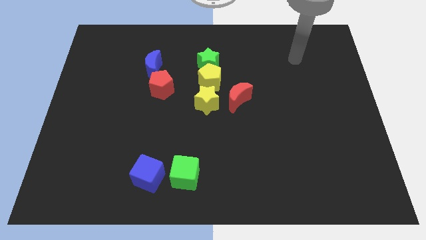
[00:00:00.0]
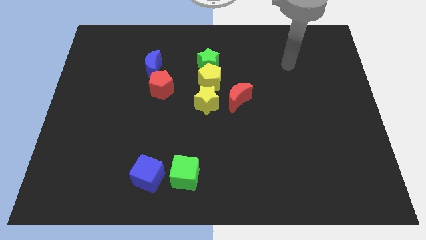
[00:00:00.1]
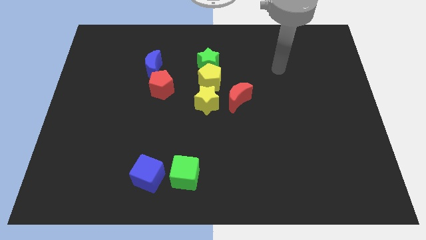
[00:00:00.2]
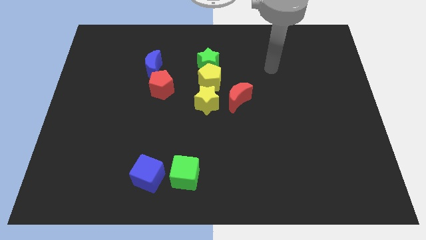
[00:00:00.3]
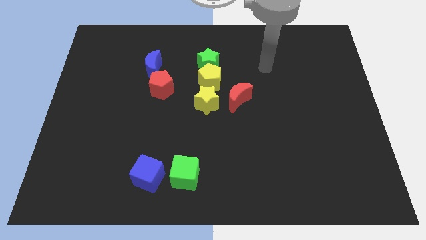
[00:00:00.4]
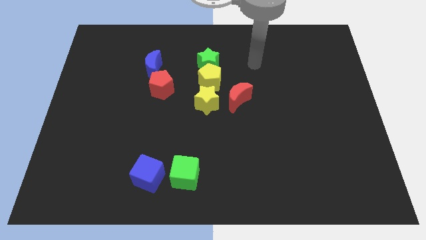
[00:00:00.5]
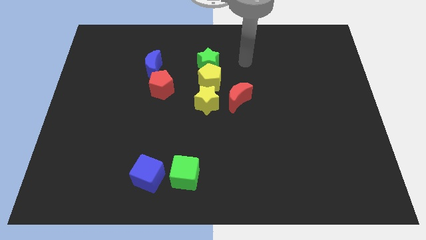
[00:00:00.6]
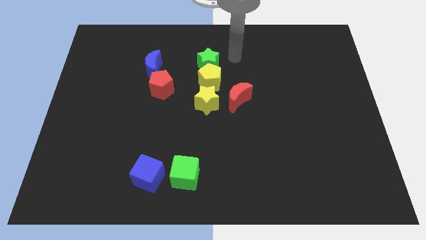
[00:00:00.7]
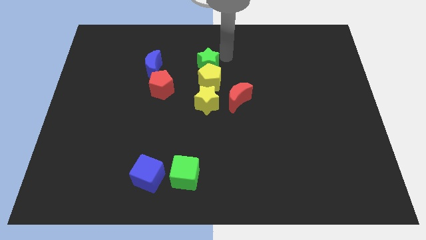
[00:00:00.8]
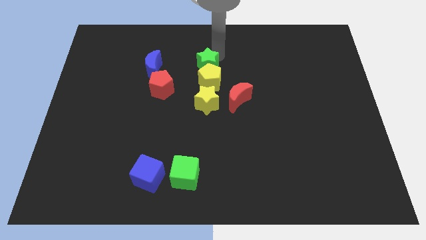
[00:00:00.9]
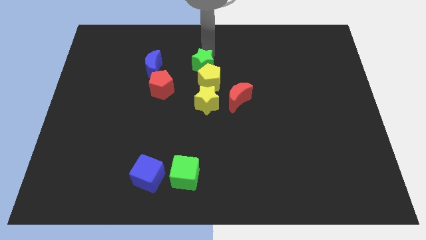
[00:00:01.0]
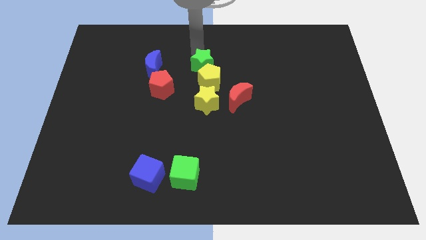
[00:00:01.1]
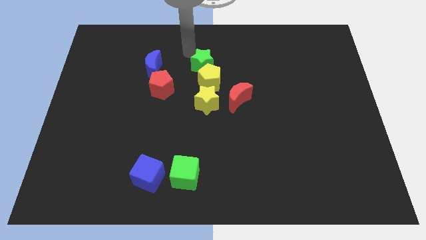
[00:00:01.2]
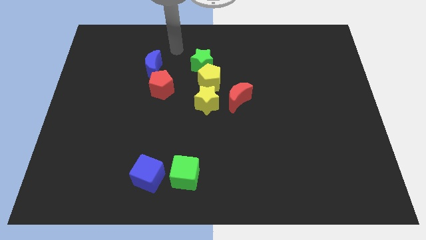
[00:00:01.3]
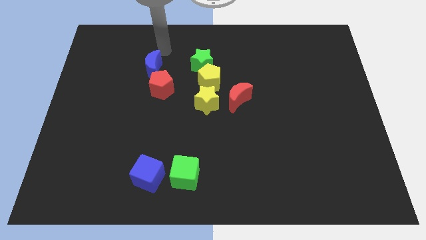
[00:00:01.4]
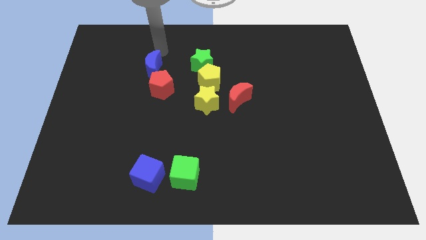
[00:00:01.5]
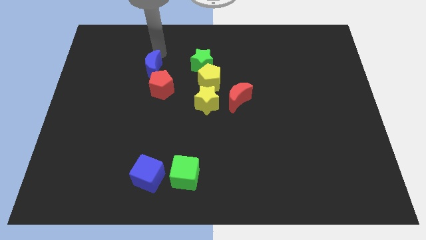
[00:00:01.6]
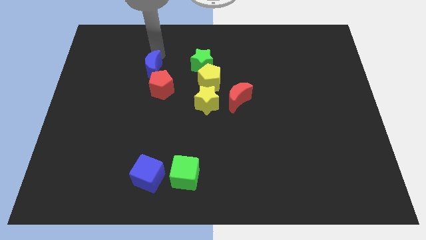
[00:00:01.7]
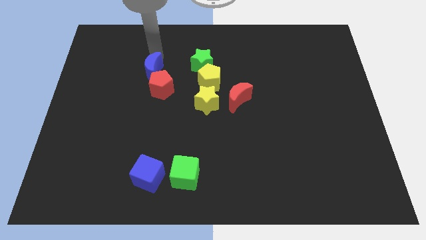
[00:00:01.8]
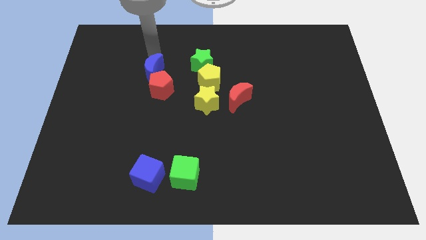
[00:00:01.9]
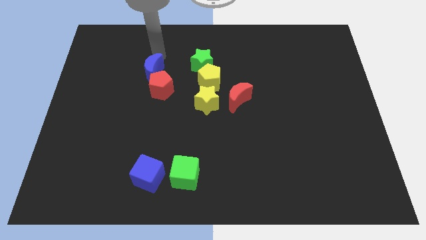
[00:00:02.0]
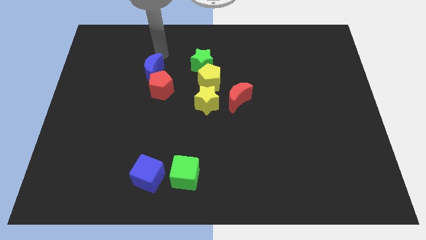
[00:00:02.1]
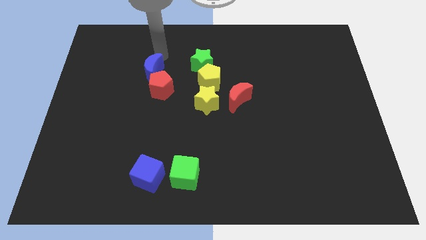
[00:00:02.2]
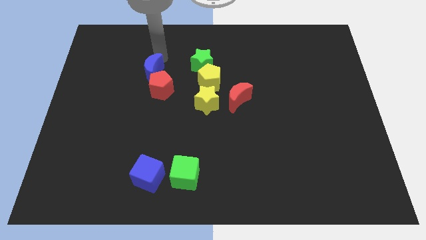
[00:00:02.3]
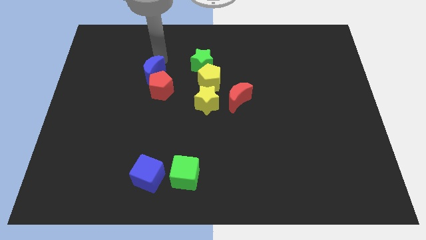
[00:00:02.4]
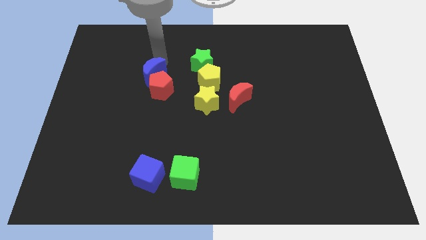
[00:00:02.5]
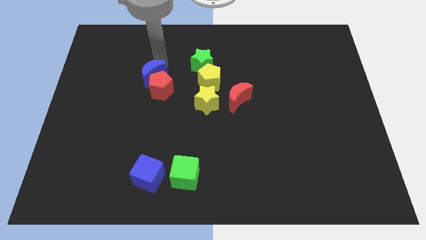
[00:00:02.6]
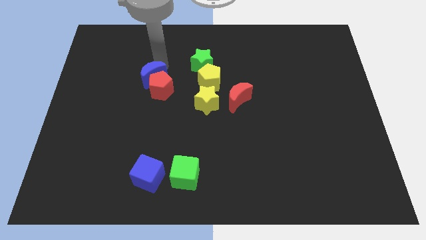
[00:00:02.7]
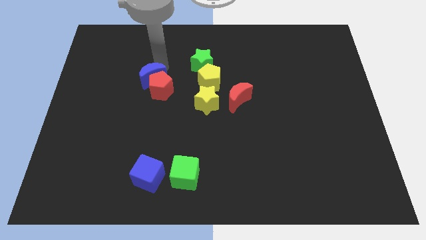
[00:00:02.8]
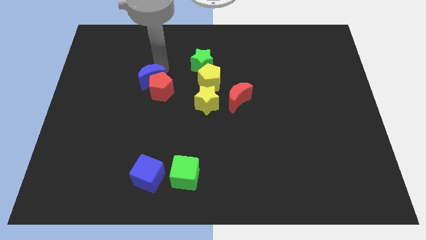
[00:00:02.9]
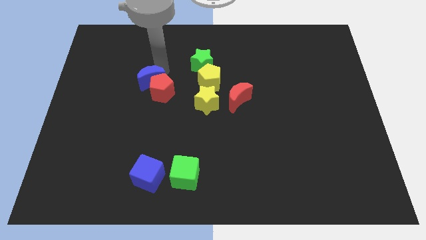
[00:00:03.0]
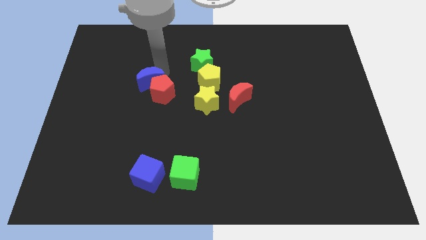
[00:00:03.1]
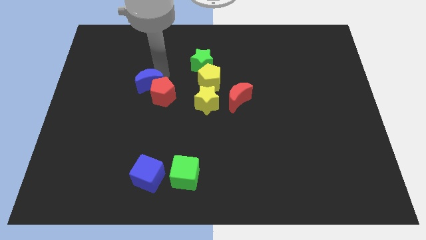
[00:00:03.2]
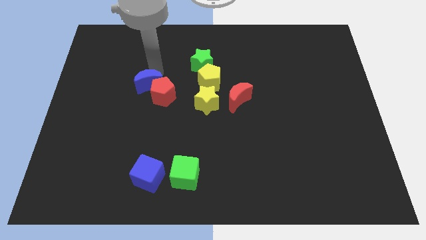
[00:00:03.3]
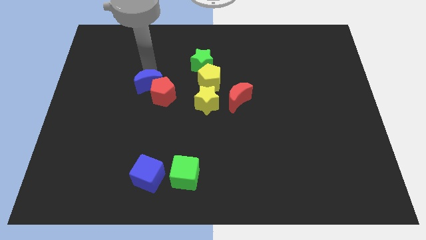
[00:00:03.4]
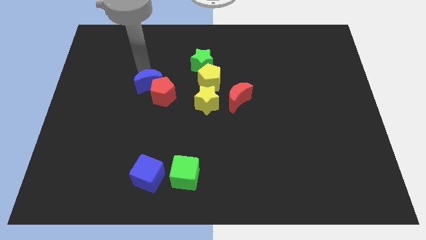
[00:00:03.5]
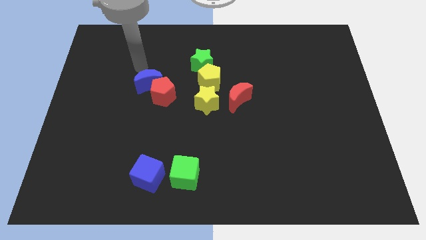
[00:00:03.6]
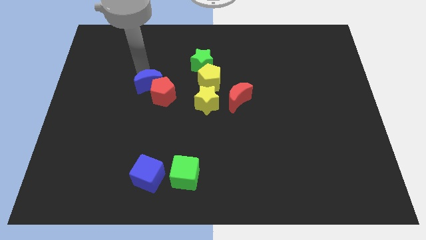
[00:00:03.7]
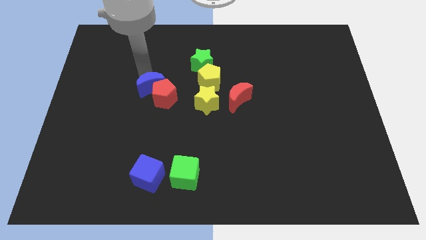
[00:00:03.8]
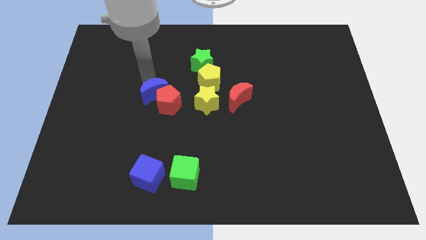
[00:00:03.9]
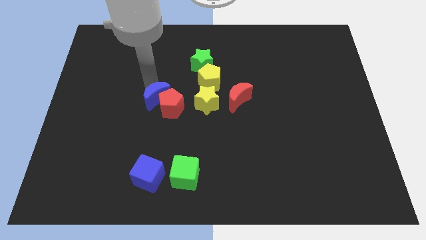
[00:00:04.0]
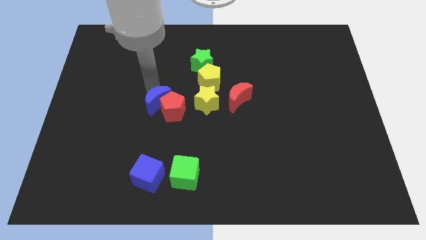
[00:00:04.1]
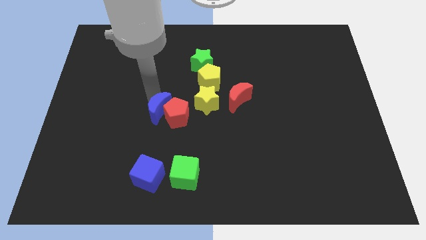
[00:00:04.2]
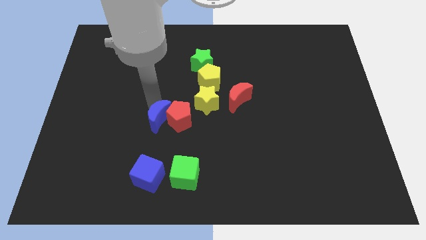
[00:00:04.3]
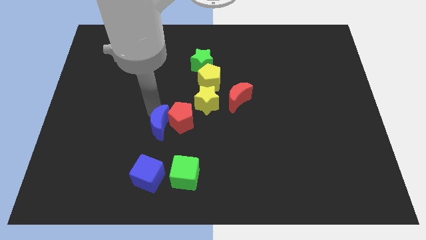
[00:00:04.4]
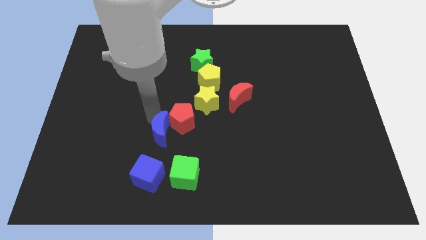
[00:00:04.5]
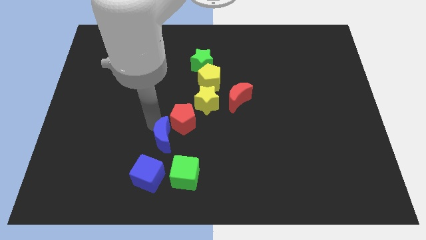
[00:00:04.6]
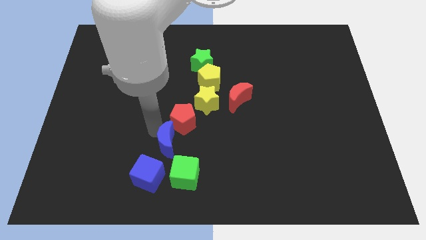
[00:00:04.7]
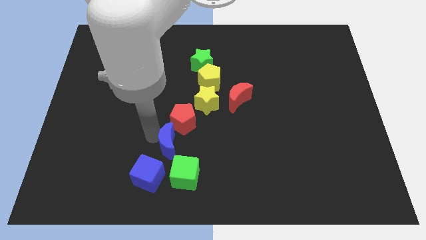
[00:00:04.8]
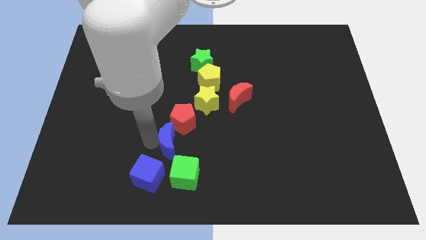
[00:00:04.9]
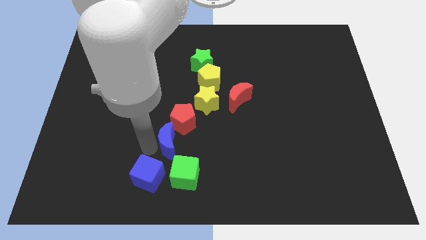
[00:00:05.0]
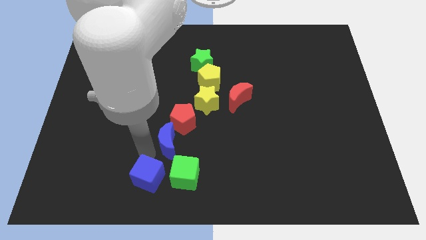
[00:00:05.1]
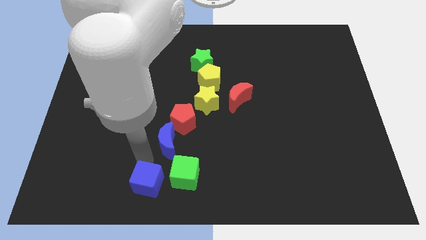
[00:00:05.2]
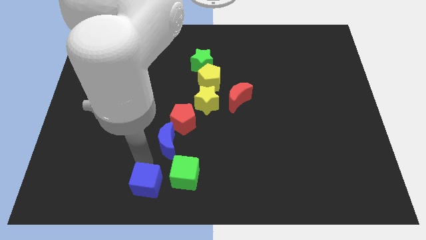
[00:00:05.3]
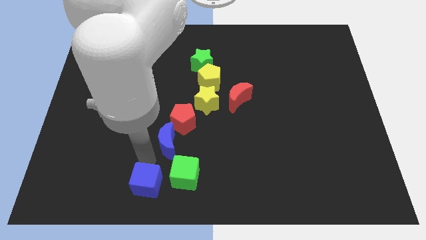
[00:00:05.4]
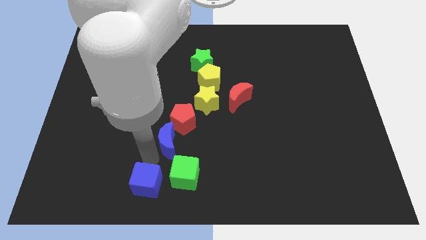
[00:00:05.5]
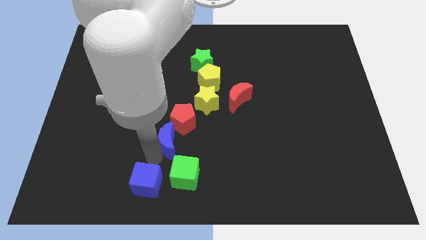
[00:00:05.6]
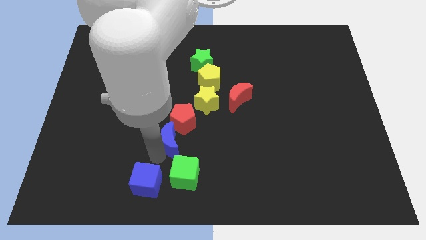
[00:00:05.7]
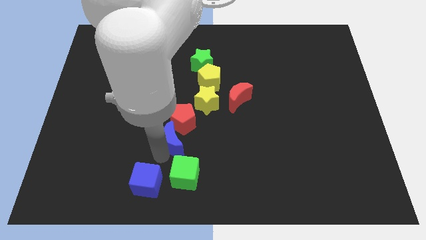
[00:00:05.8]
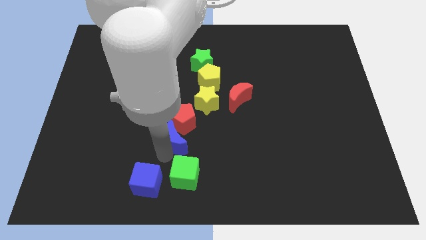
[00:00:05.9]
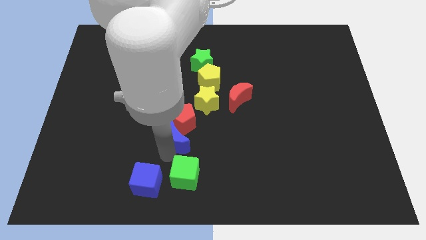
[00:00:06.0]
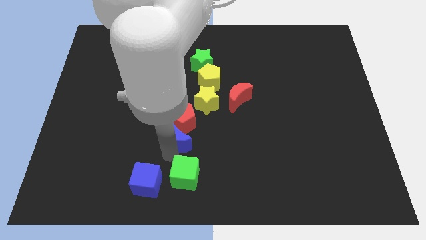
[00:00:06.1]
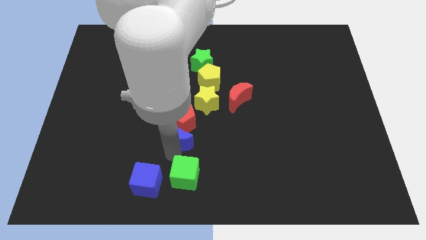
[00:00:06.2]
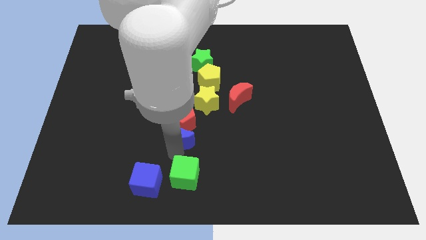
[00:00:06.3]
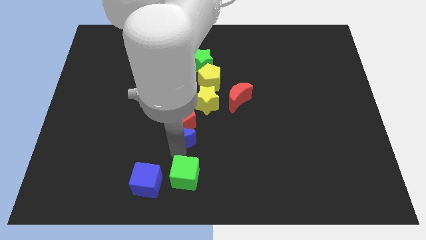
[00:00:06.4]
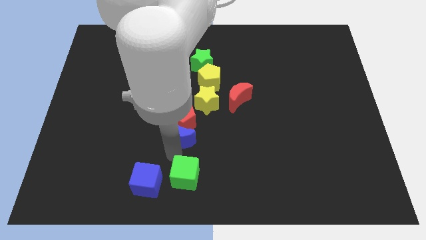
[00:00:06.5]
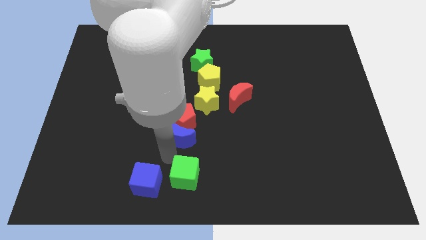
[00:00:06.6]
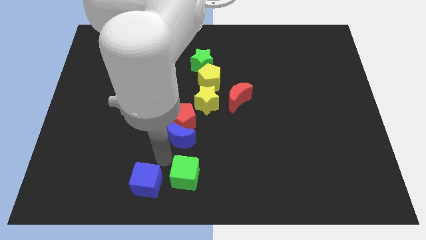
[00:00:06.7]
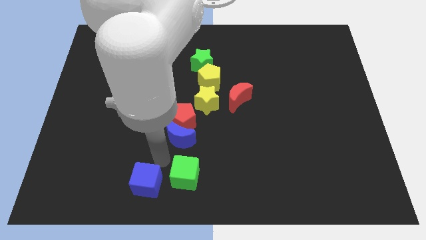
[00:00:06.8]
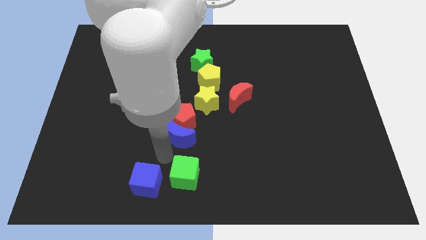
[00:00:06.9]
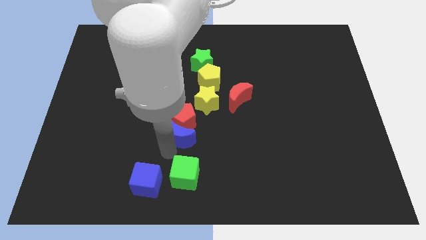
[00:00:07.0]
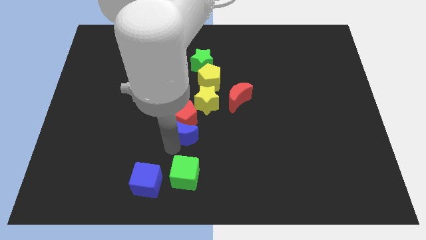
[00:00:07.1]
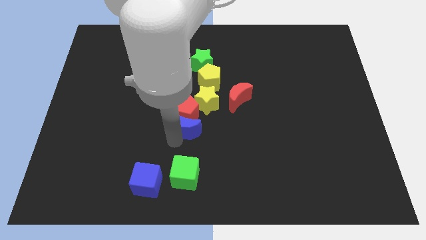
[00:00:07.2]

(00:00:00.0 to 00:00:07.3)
push the blue moon to the bottom of the yellow star

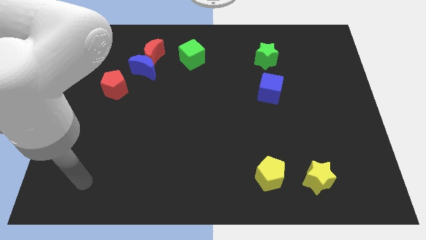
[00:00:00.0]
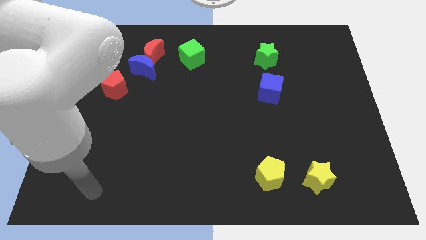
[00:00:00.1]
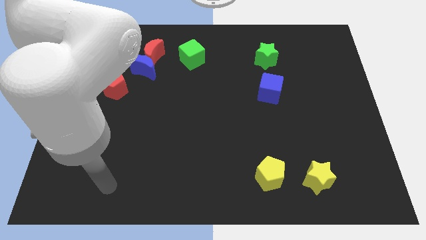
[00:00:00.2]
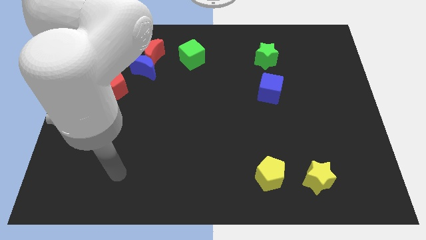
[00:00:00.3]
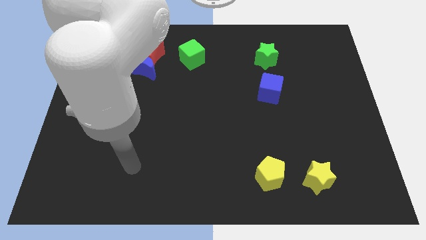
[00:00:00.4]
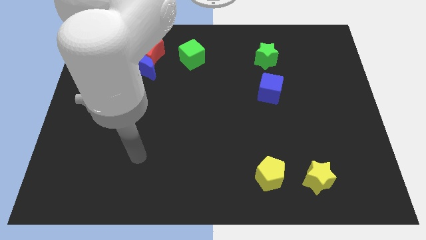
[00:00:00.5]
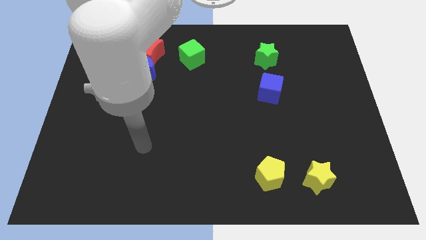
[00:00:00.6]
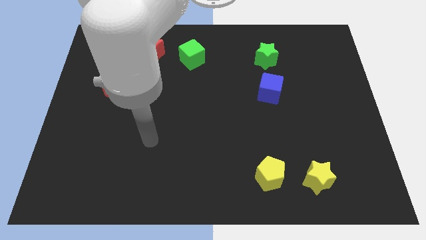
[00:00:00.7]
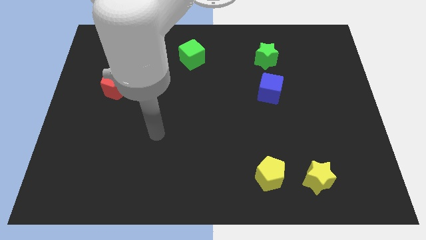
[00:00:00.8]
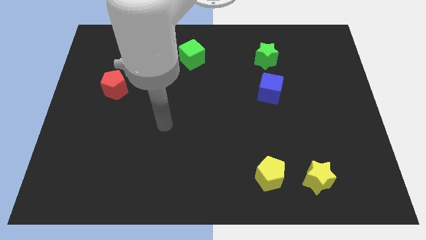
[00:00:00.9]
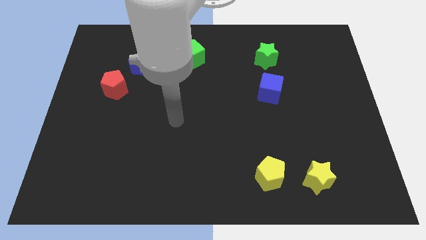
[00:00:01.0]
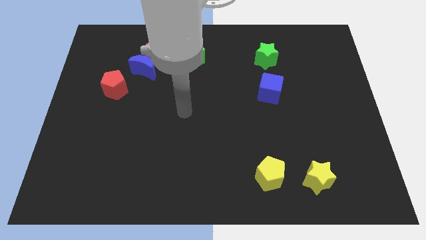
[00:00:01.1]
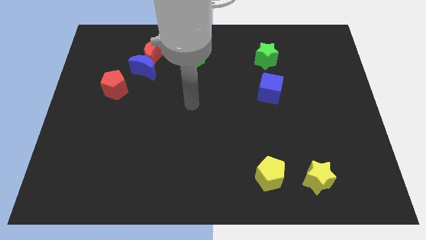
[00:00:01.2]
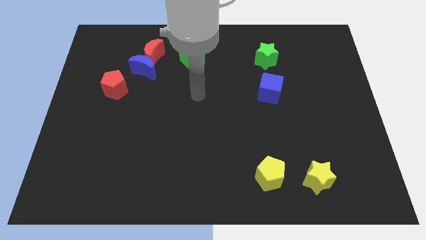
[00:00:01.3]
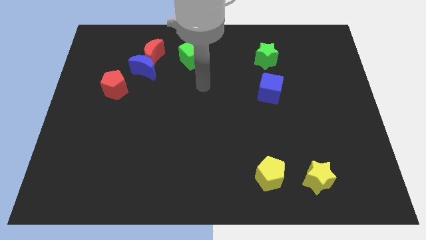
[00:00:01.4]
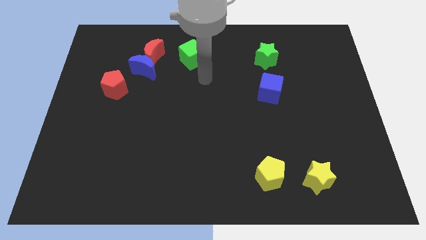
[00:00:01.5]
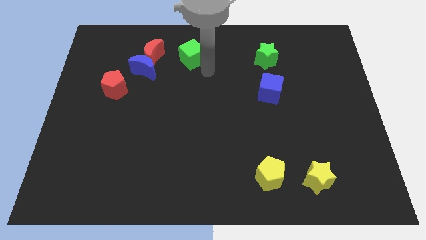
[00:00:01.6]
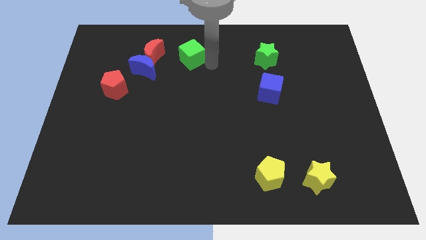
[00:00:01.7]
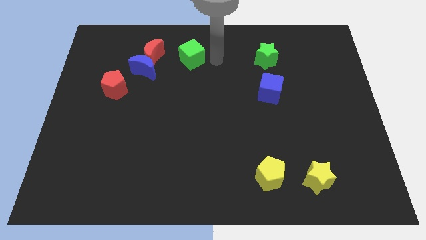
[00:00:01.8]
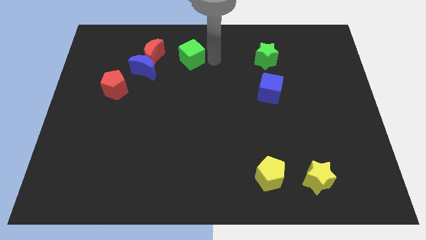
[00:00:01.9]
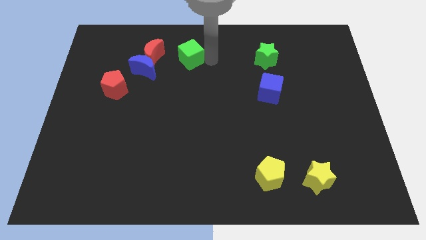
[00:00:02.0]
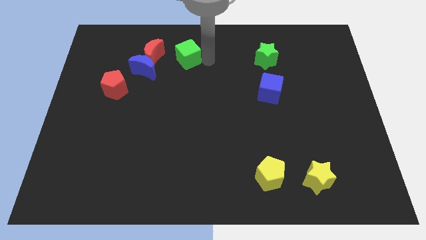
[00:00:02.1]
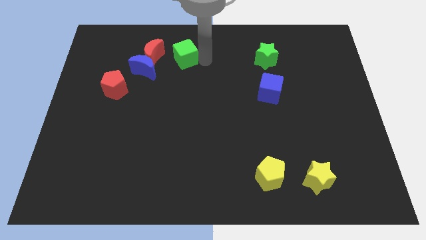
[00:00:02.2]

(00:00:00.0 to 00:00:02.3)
put the green cube to the top right of the blue moon
